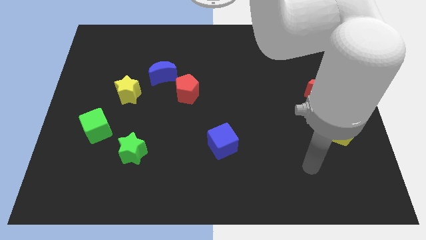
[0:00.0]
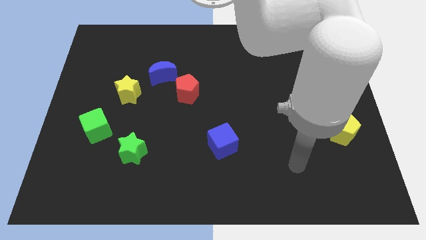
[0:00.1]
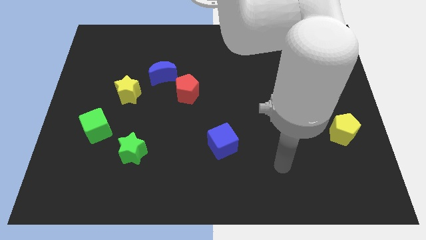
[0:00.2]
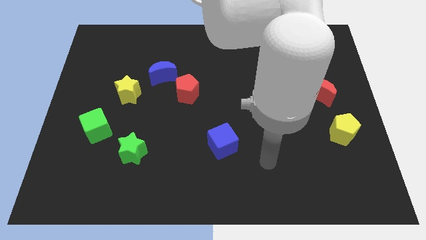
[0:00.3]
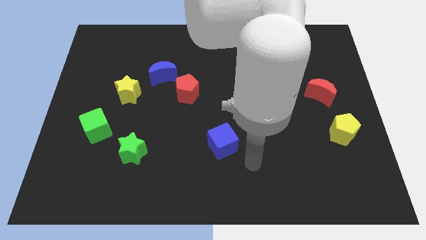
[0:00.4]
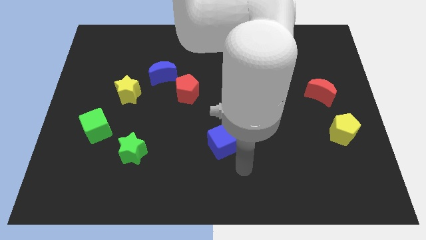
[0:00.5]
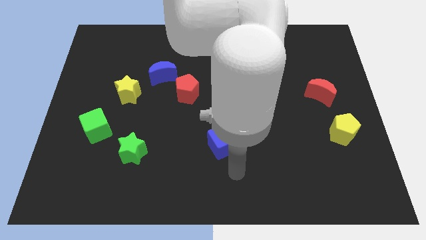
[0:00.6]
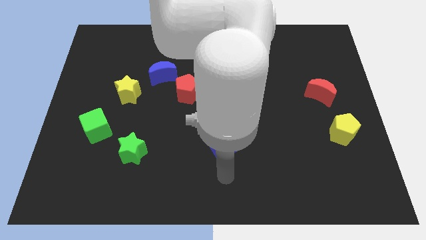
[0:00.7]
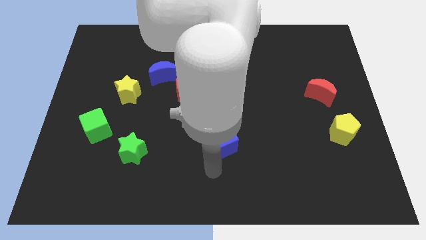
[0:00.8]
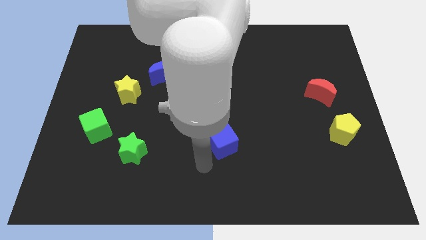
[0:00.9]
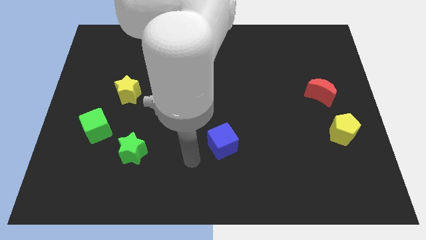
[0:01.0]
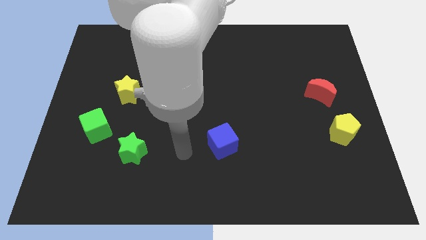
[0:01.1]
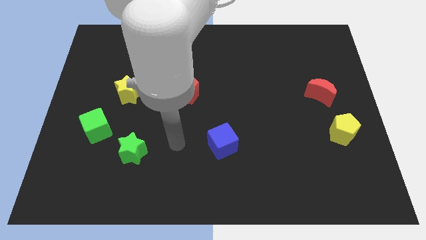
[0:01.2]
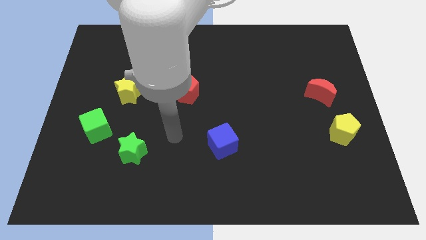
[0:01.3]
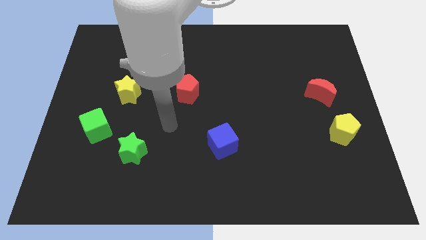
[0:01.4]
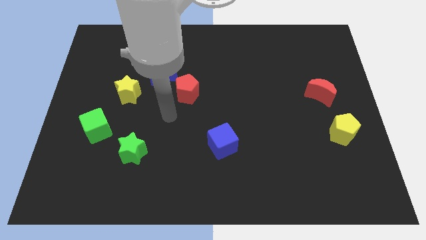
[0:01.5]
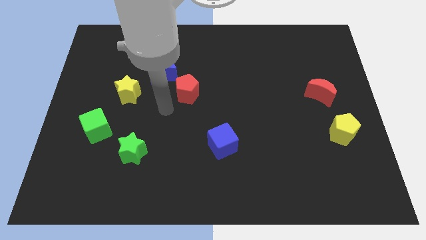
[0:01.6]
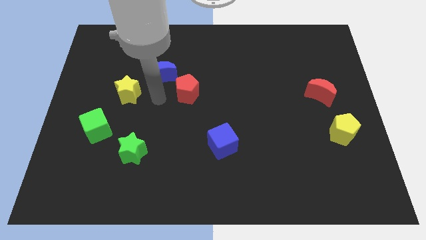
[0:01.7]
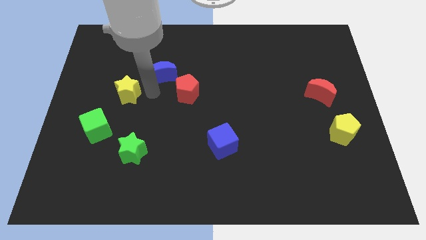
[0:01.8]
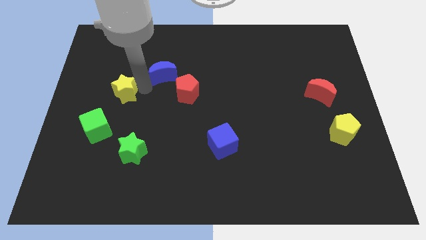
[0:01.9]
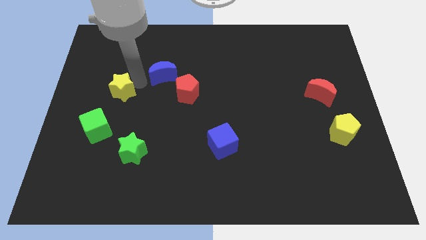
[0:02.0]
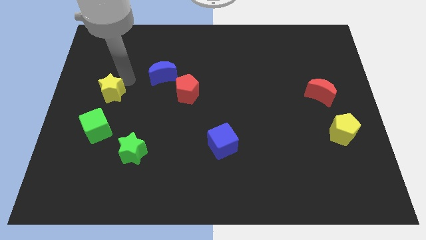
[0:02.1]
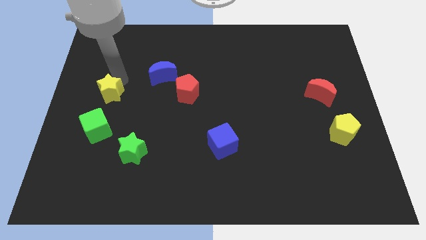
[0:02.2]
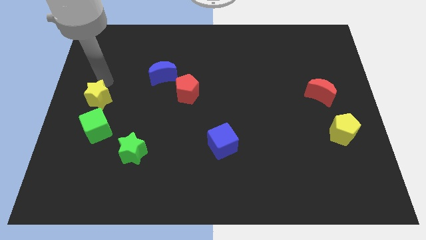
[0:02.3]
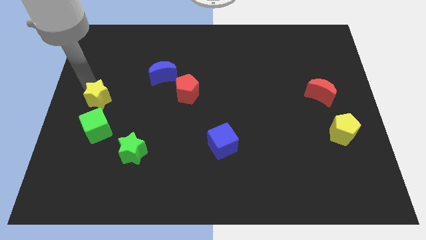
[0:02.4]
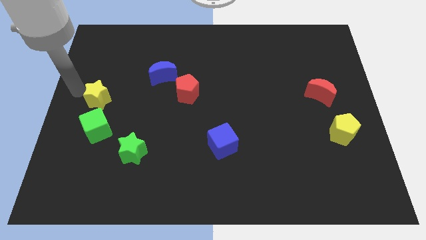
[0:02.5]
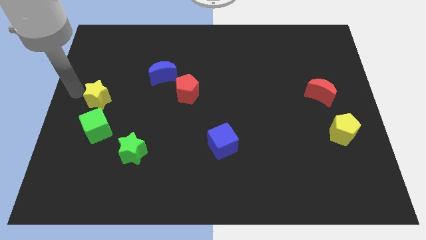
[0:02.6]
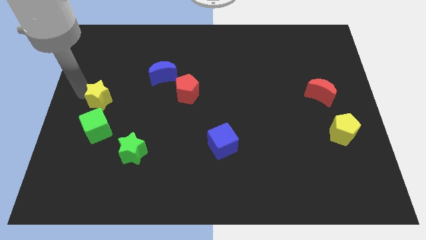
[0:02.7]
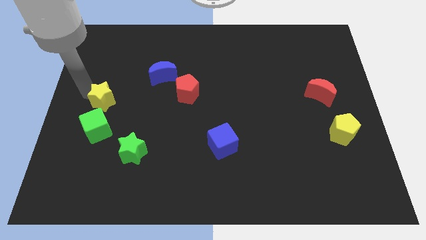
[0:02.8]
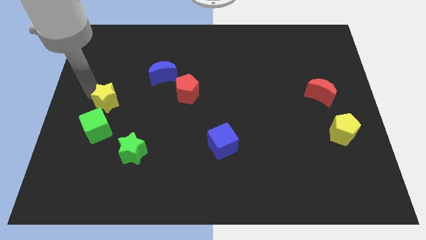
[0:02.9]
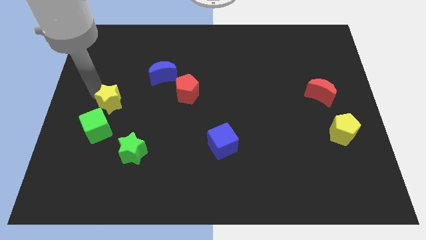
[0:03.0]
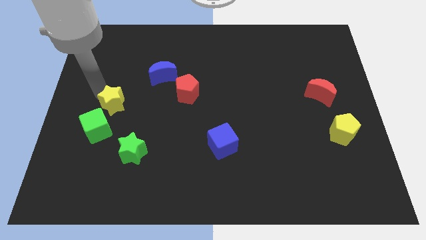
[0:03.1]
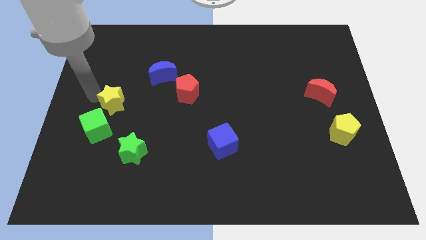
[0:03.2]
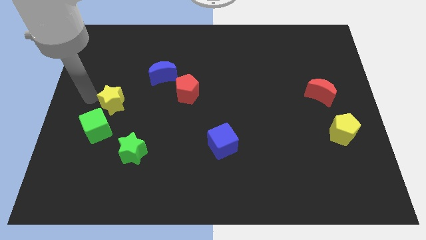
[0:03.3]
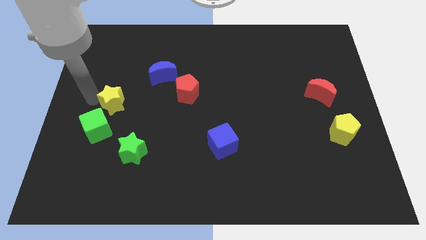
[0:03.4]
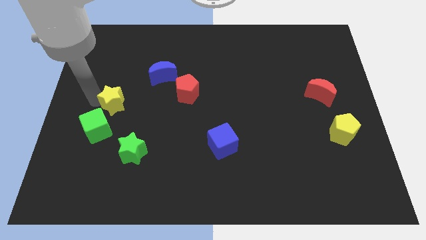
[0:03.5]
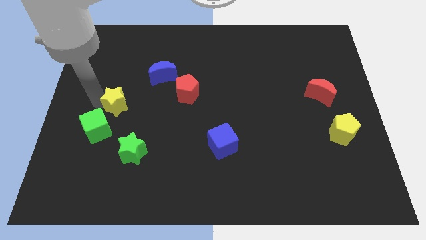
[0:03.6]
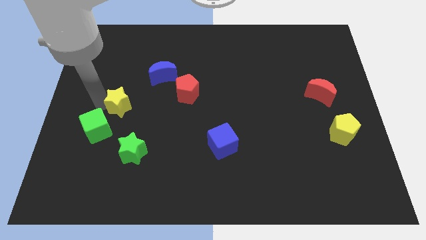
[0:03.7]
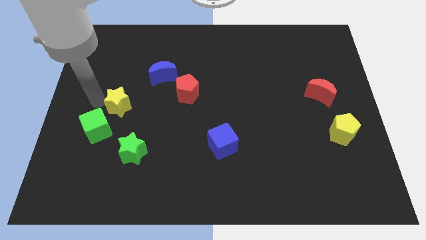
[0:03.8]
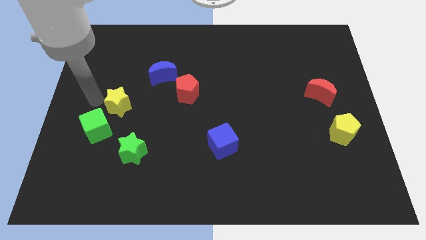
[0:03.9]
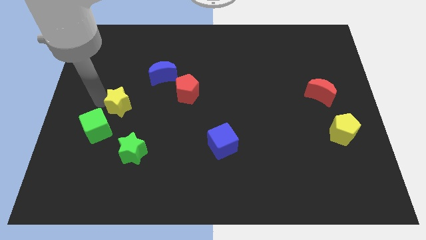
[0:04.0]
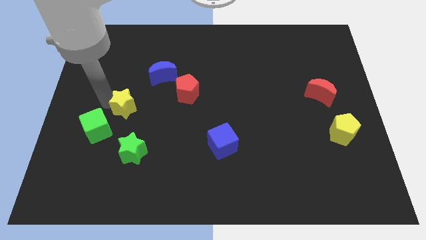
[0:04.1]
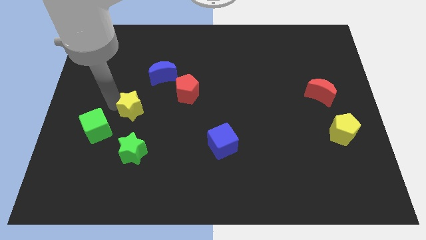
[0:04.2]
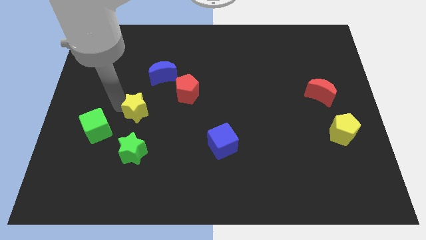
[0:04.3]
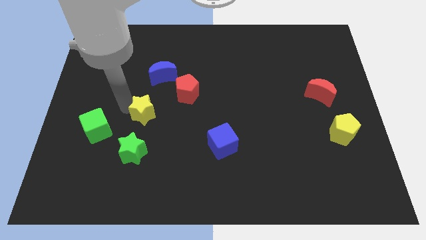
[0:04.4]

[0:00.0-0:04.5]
slide the yellow star a little diagonally down and right

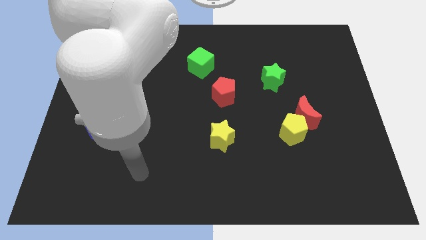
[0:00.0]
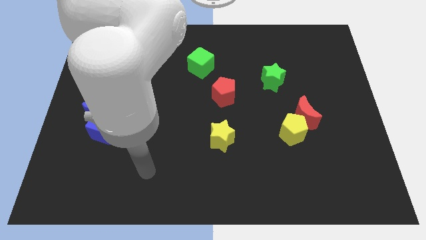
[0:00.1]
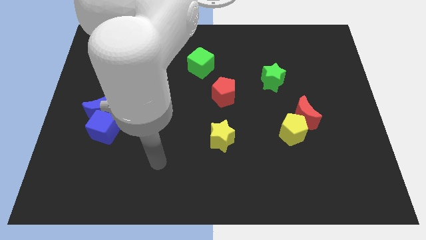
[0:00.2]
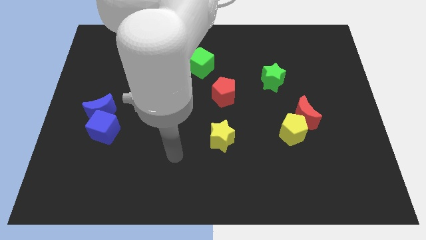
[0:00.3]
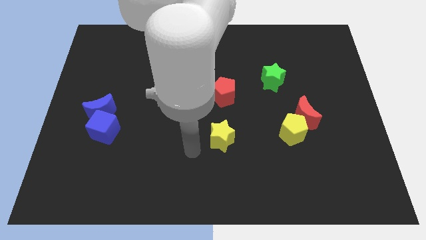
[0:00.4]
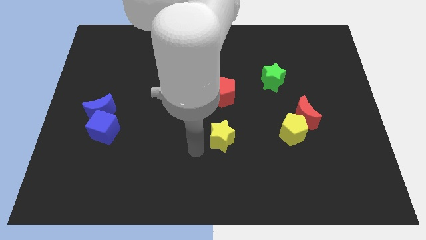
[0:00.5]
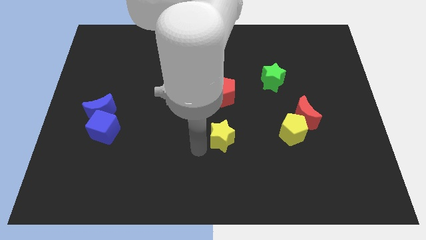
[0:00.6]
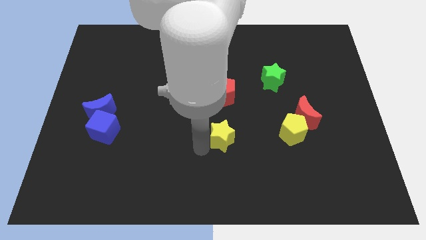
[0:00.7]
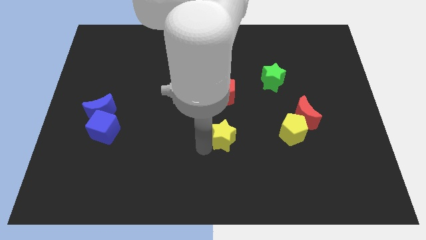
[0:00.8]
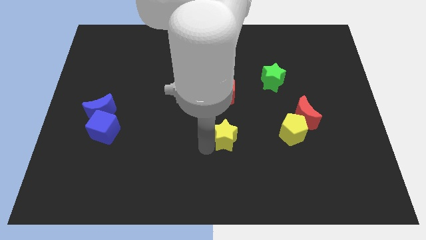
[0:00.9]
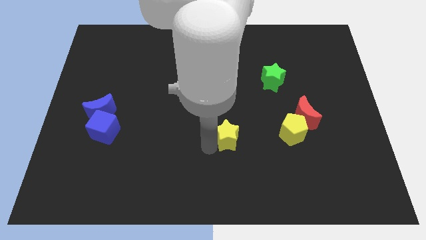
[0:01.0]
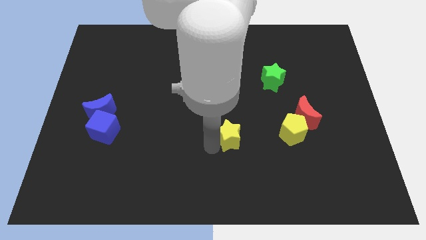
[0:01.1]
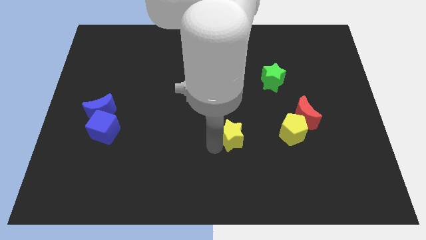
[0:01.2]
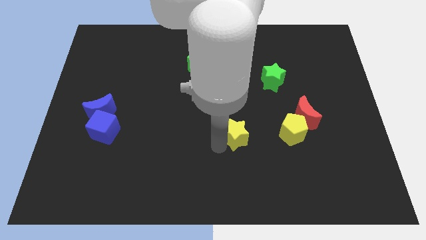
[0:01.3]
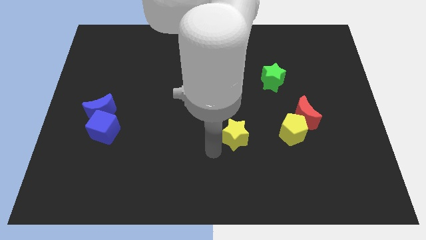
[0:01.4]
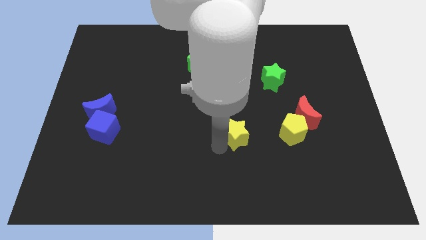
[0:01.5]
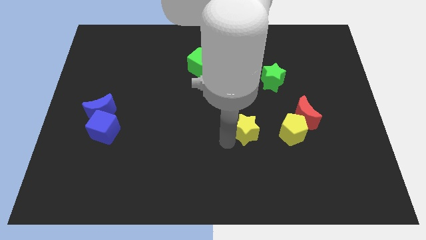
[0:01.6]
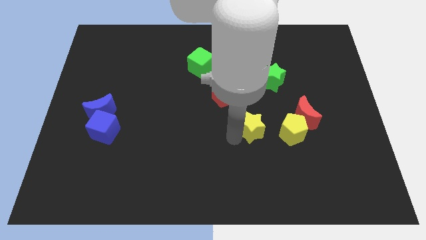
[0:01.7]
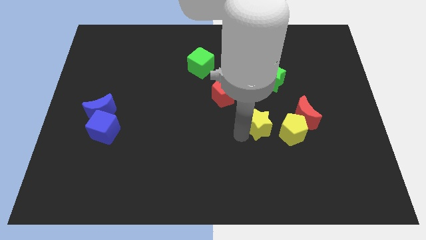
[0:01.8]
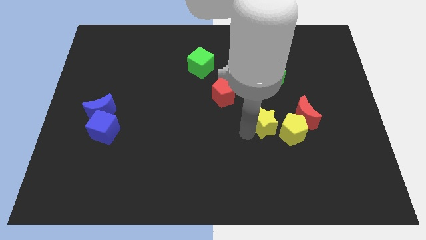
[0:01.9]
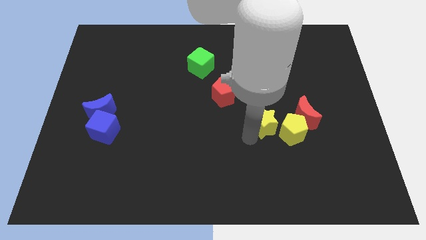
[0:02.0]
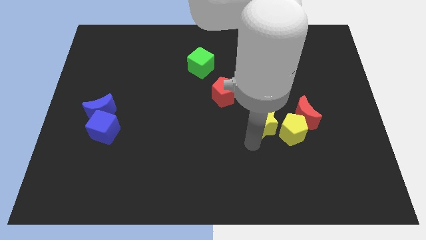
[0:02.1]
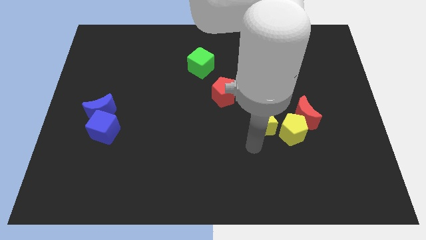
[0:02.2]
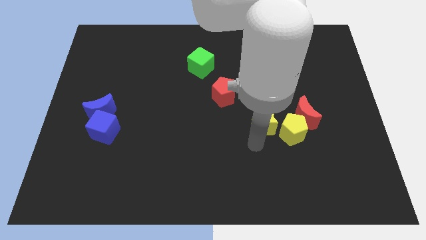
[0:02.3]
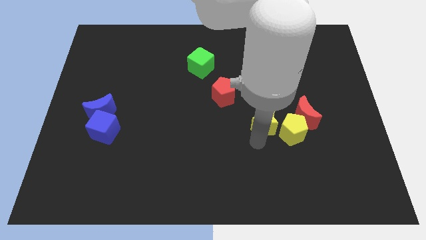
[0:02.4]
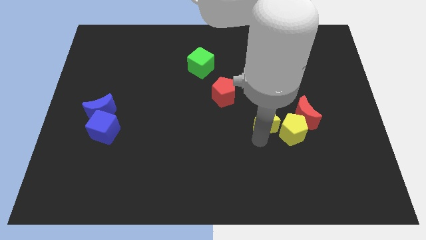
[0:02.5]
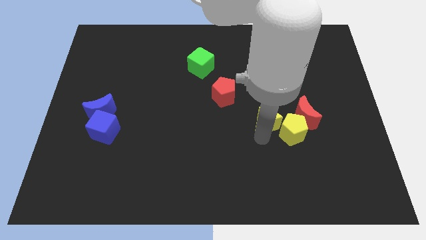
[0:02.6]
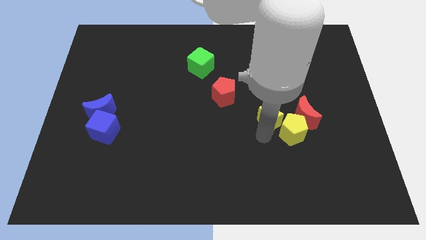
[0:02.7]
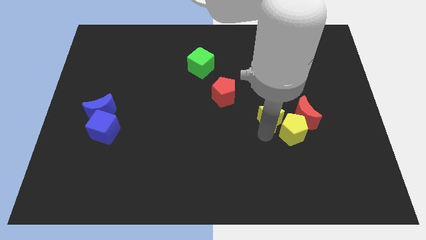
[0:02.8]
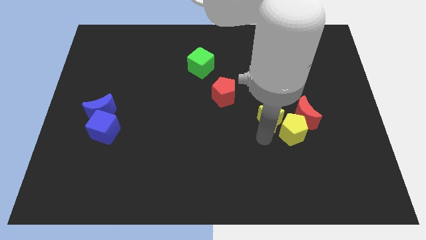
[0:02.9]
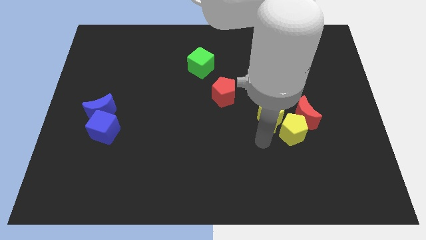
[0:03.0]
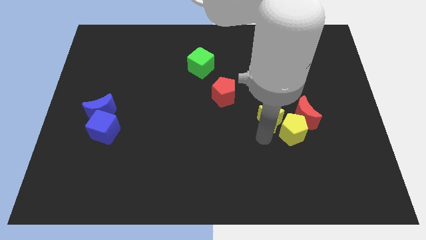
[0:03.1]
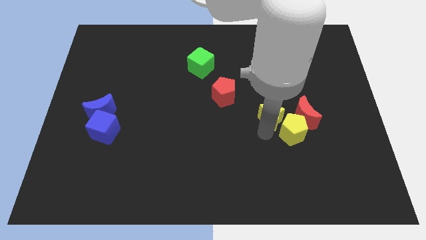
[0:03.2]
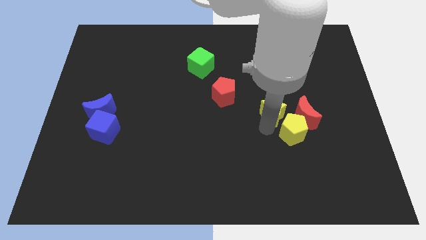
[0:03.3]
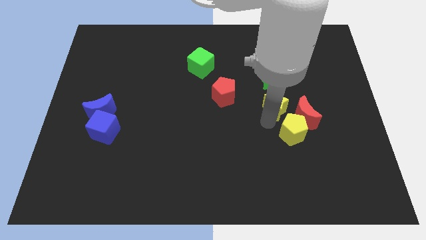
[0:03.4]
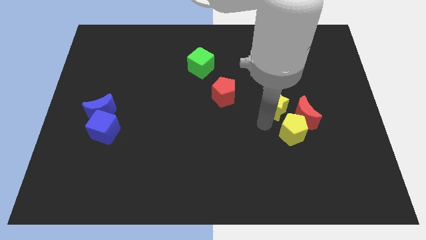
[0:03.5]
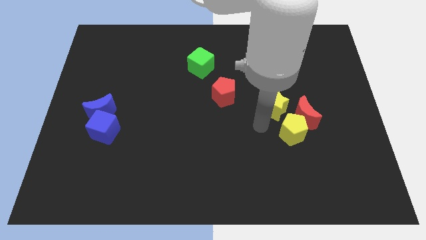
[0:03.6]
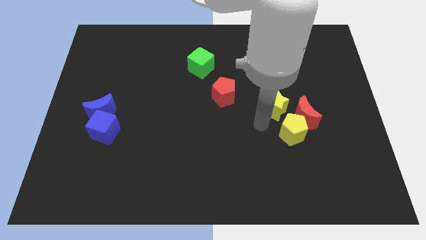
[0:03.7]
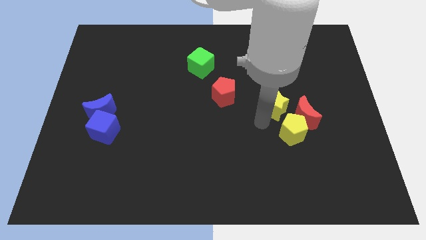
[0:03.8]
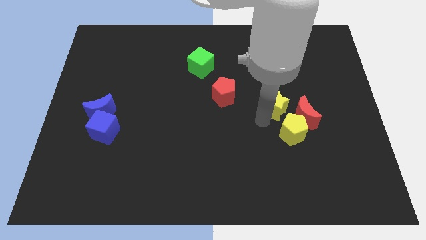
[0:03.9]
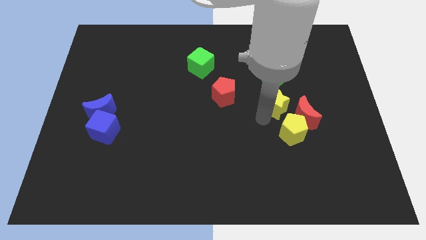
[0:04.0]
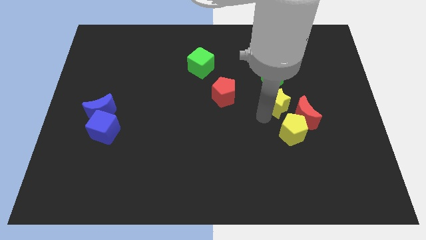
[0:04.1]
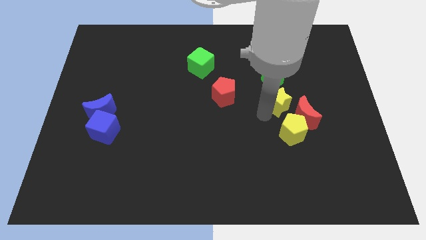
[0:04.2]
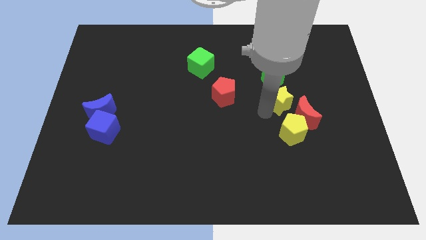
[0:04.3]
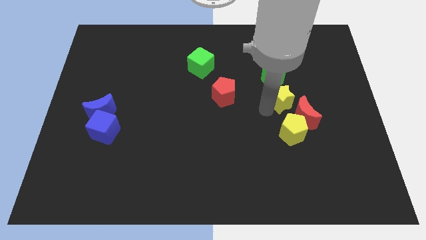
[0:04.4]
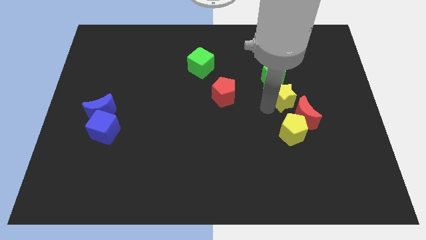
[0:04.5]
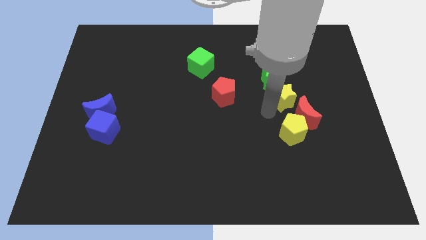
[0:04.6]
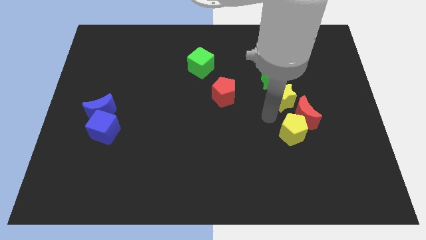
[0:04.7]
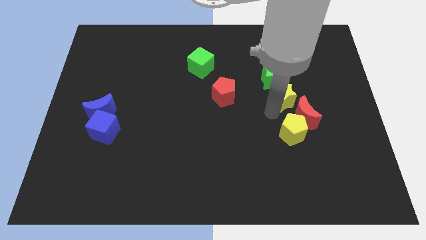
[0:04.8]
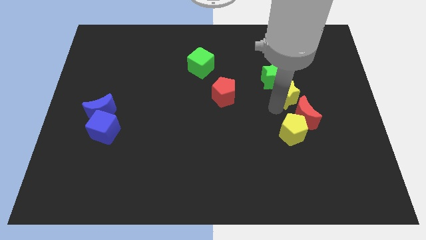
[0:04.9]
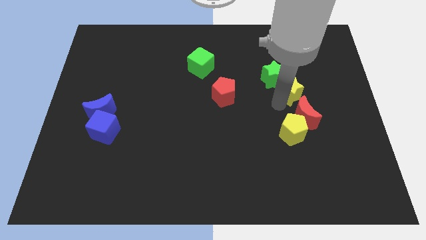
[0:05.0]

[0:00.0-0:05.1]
push the yellow star upwards and to the right
